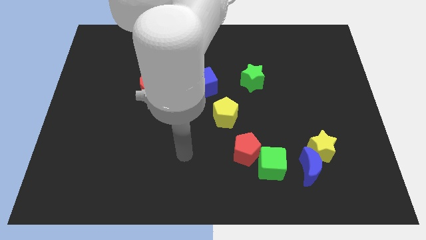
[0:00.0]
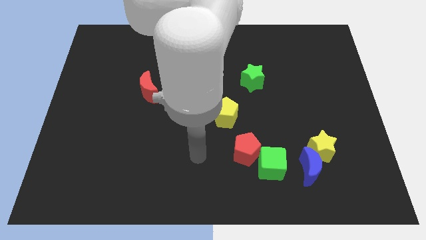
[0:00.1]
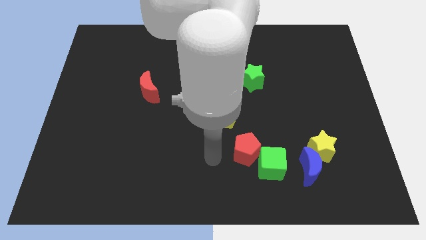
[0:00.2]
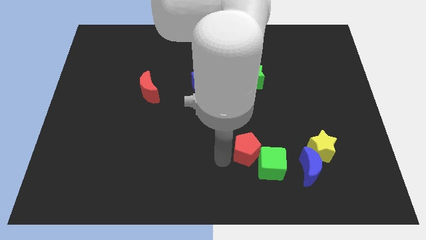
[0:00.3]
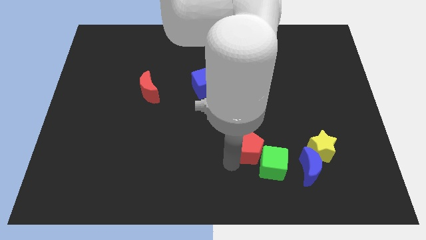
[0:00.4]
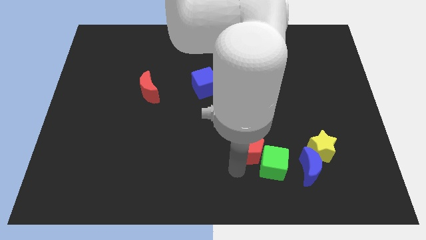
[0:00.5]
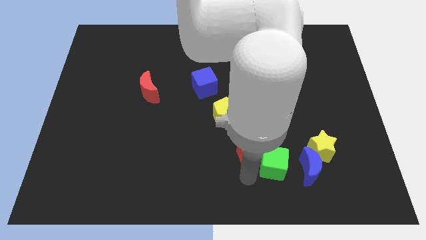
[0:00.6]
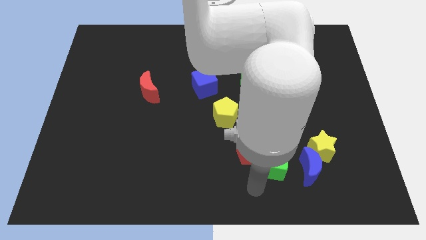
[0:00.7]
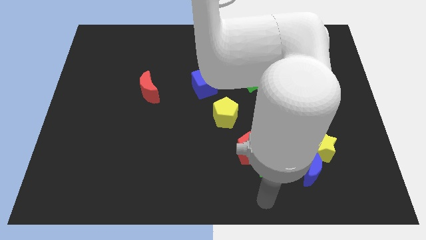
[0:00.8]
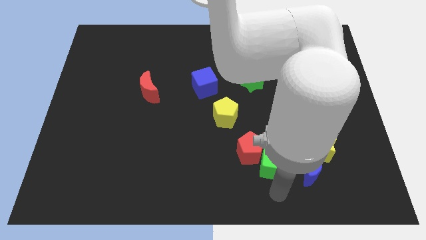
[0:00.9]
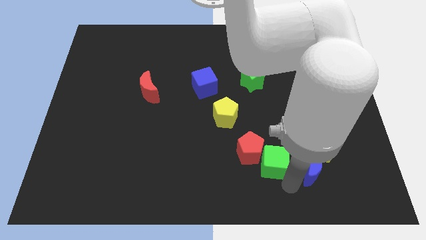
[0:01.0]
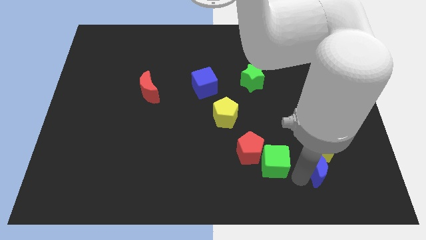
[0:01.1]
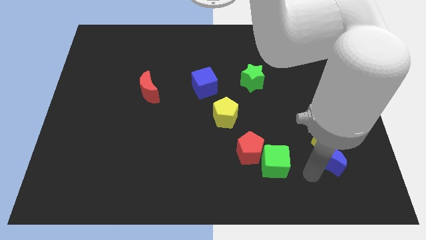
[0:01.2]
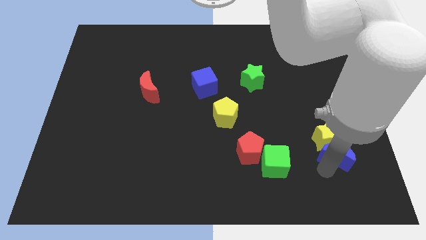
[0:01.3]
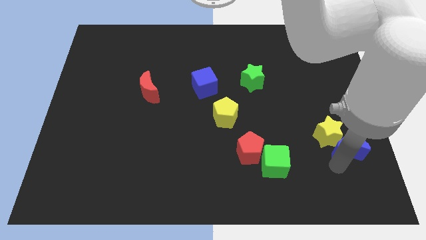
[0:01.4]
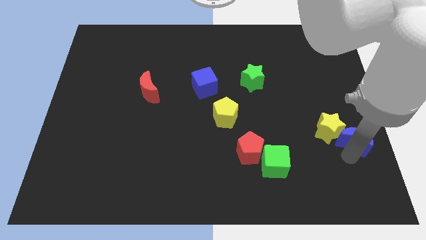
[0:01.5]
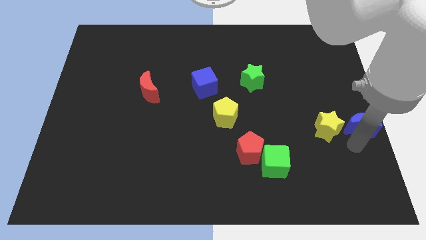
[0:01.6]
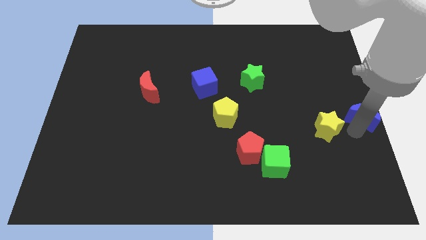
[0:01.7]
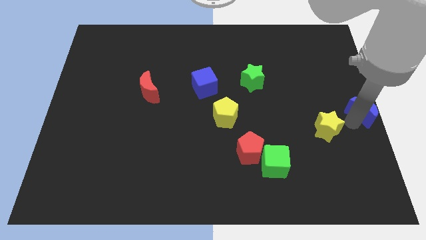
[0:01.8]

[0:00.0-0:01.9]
move the yellow star away from the blue moon

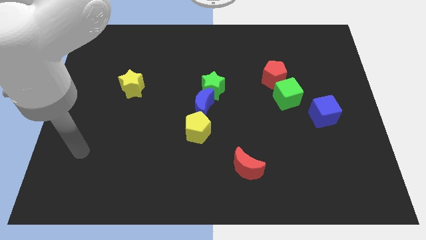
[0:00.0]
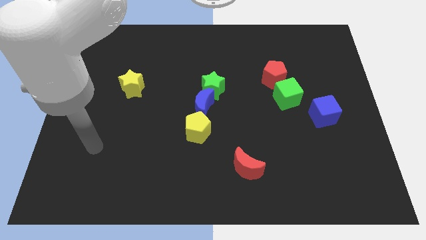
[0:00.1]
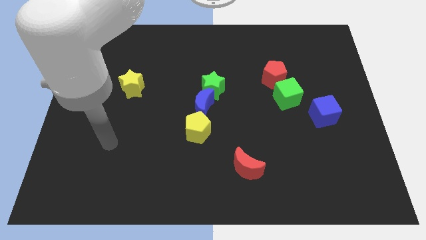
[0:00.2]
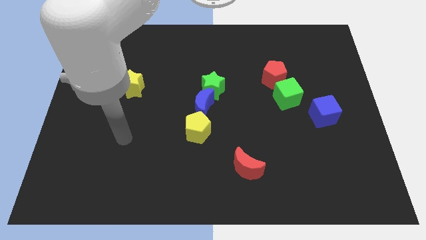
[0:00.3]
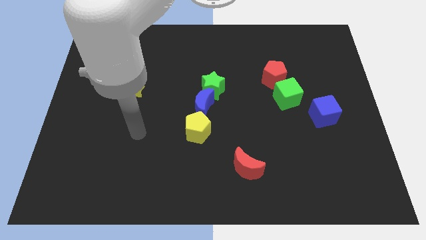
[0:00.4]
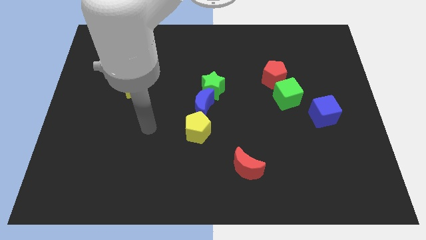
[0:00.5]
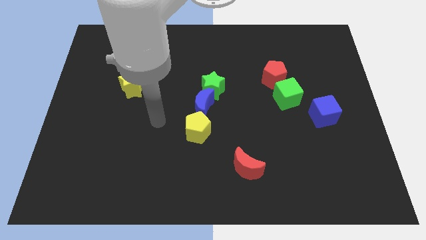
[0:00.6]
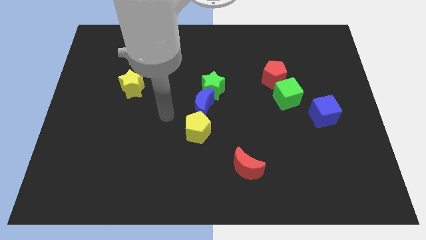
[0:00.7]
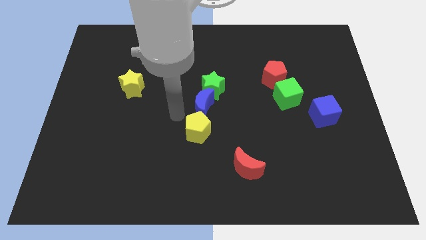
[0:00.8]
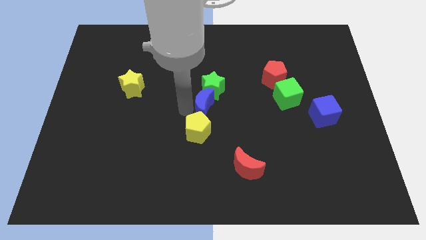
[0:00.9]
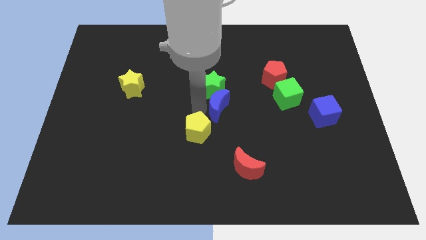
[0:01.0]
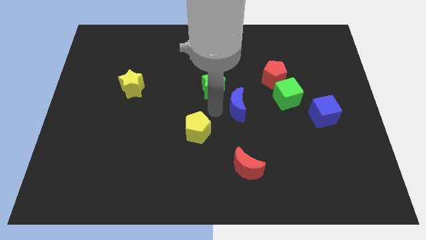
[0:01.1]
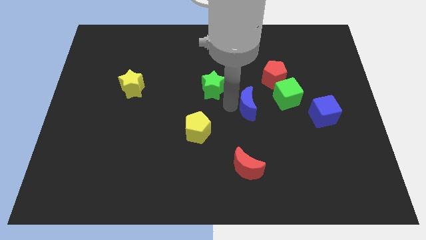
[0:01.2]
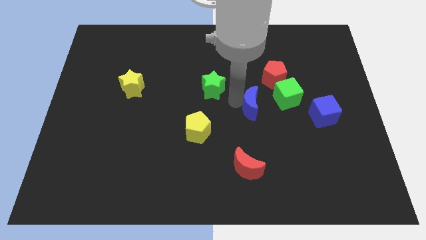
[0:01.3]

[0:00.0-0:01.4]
move the green star away from the blue moon

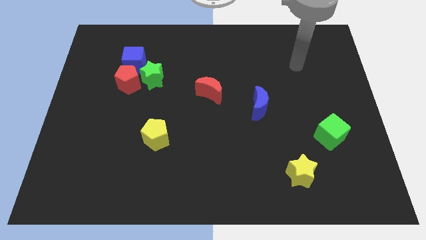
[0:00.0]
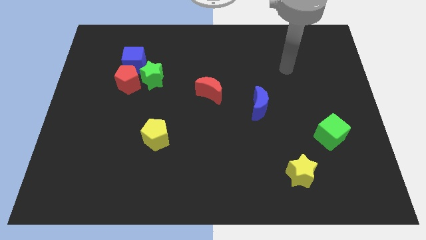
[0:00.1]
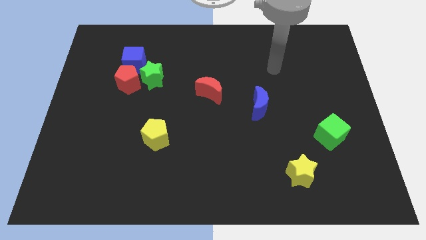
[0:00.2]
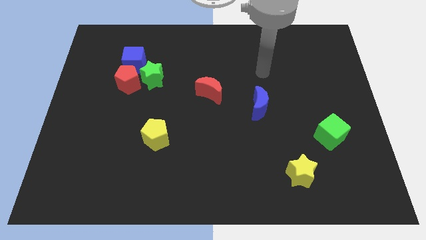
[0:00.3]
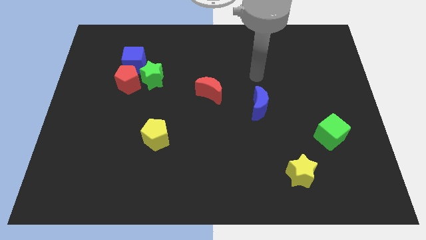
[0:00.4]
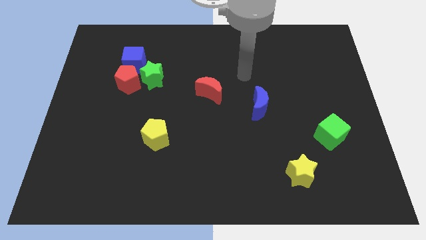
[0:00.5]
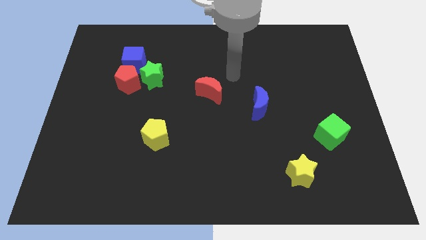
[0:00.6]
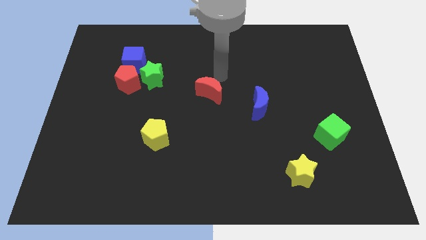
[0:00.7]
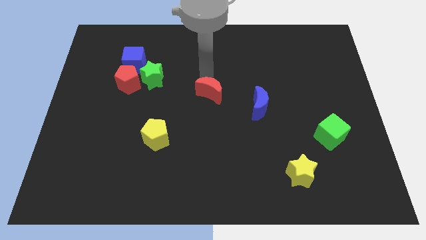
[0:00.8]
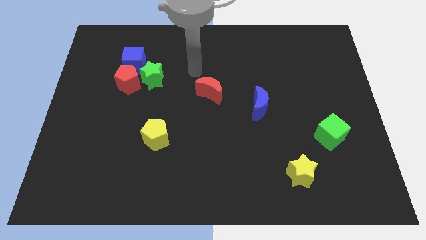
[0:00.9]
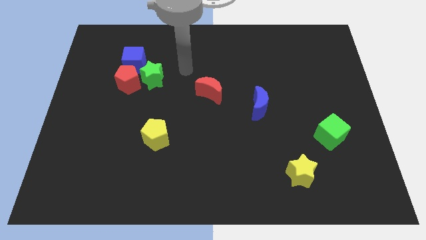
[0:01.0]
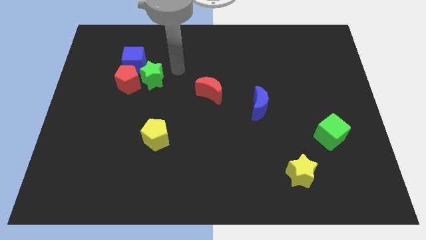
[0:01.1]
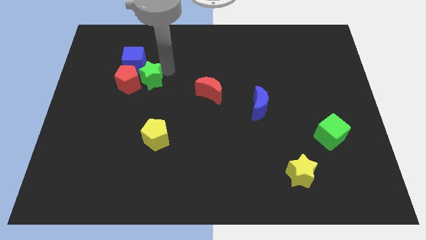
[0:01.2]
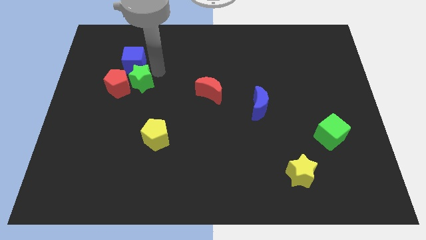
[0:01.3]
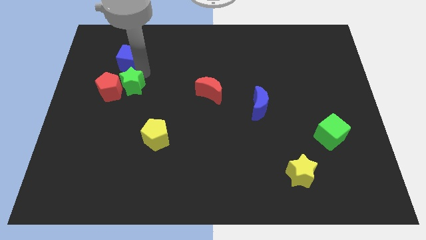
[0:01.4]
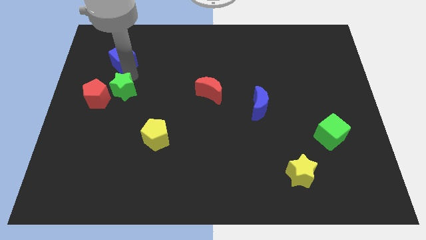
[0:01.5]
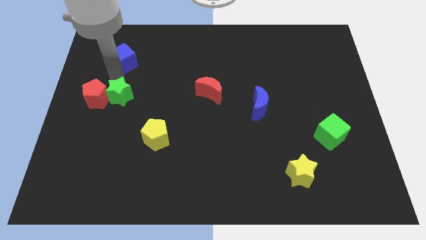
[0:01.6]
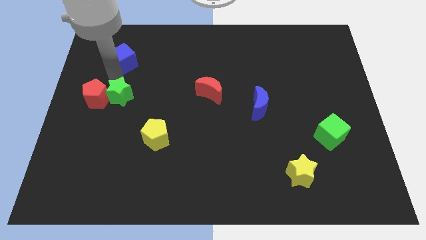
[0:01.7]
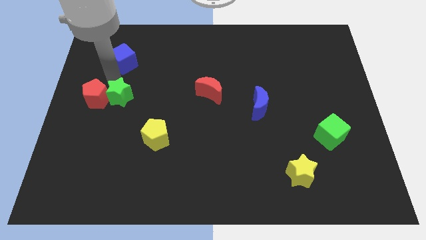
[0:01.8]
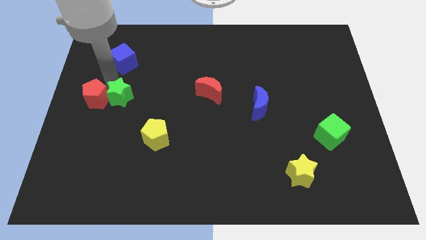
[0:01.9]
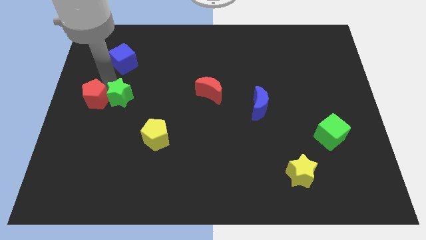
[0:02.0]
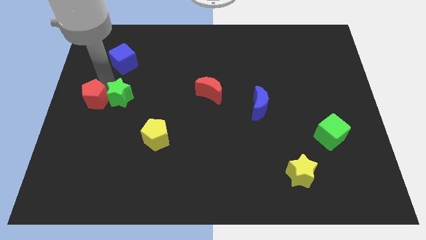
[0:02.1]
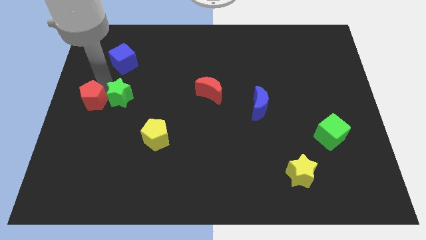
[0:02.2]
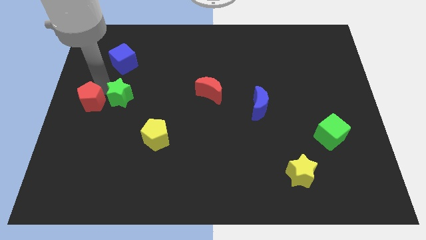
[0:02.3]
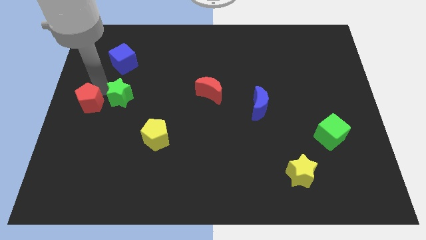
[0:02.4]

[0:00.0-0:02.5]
pull the red pentagon apart from the green star and blue cube

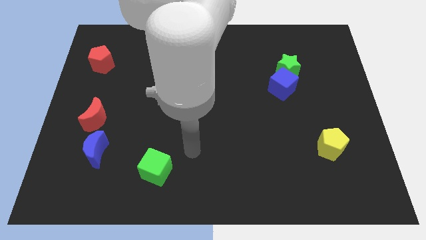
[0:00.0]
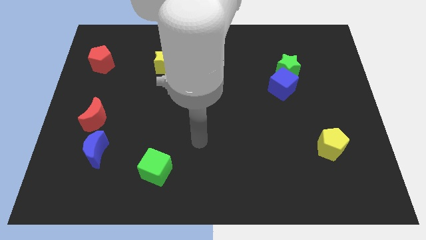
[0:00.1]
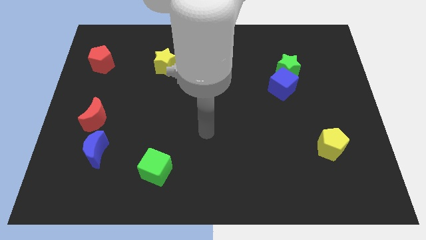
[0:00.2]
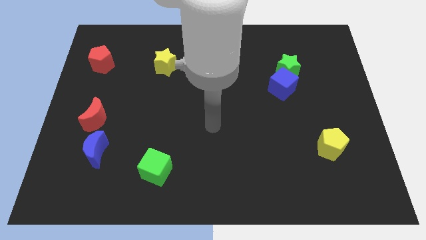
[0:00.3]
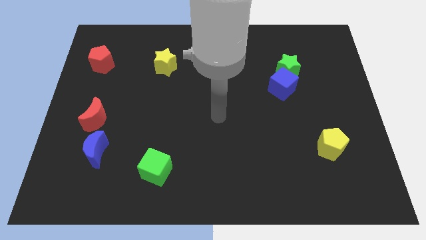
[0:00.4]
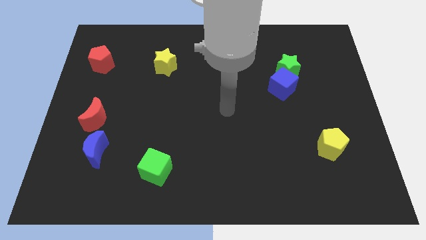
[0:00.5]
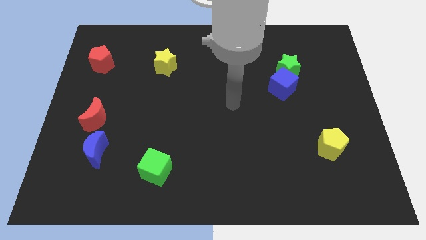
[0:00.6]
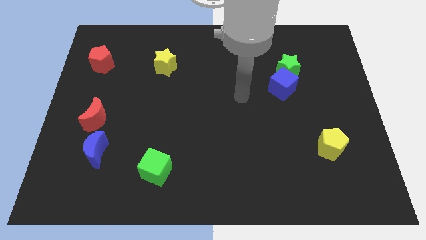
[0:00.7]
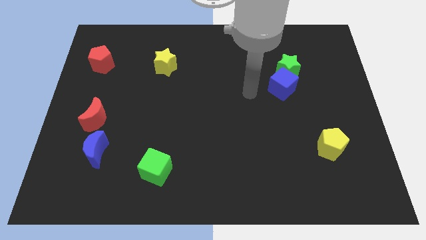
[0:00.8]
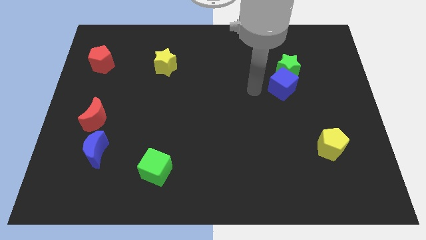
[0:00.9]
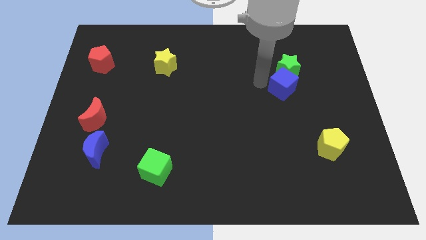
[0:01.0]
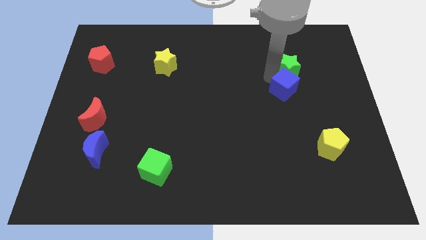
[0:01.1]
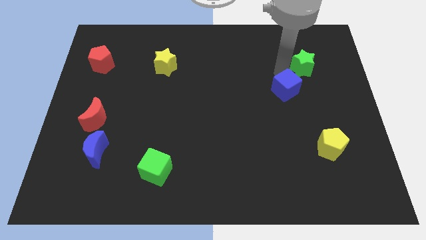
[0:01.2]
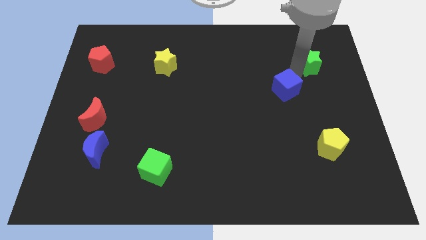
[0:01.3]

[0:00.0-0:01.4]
move the blue cube away from the green star

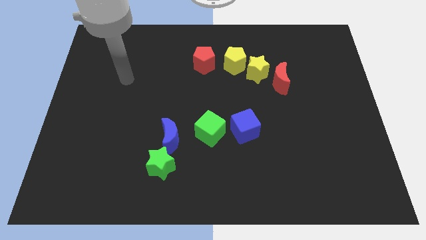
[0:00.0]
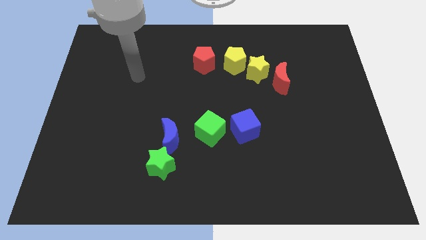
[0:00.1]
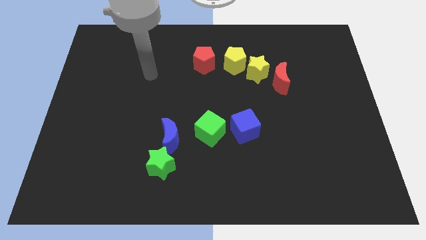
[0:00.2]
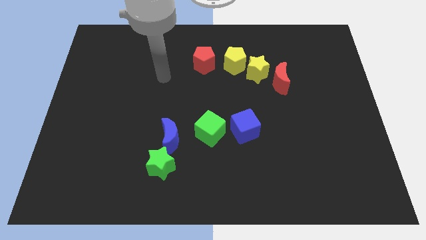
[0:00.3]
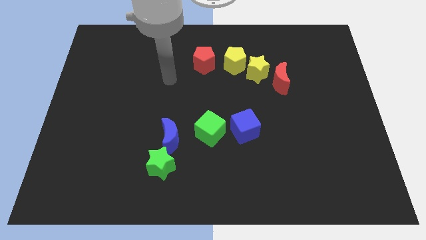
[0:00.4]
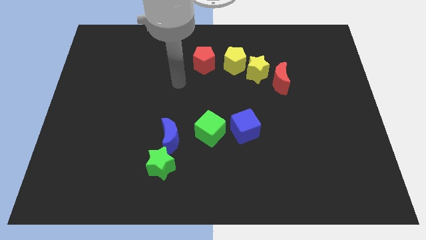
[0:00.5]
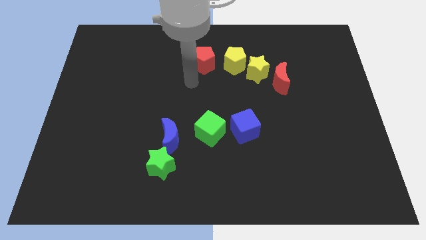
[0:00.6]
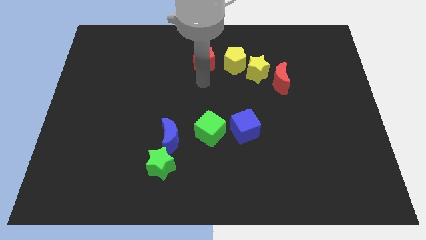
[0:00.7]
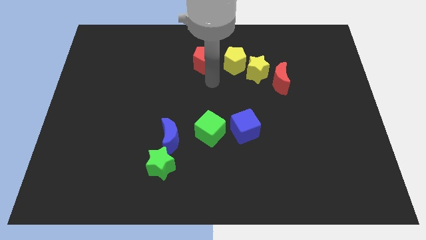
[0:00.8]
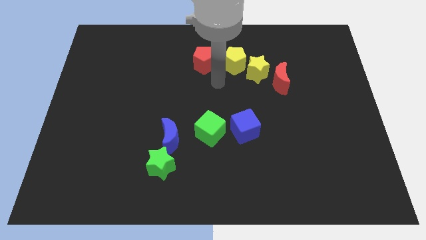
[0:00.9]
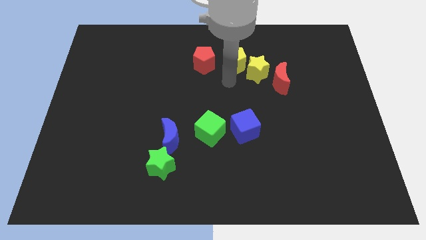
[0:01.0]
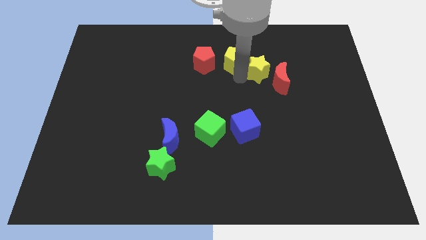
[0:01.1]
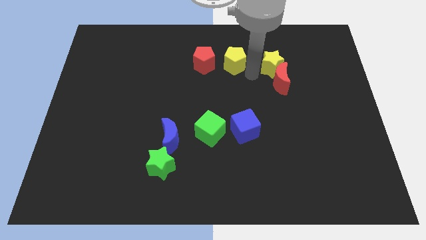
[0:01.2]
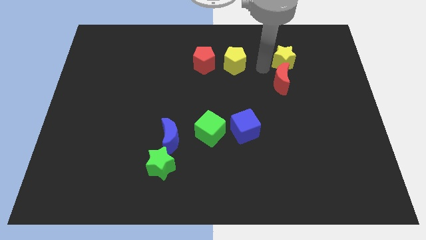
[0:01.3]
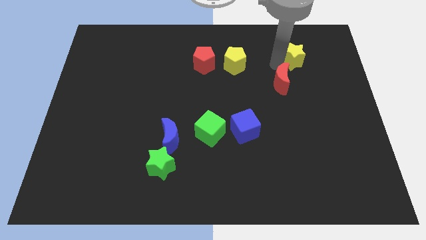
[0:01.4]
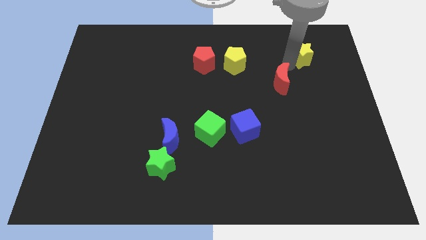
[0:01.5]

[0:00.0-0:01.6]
move the red moon away from the yellow star

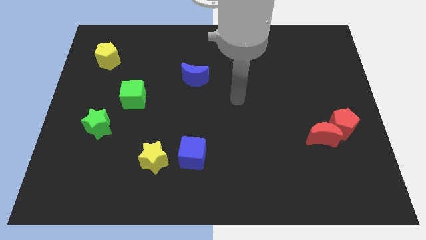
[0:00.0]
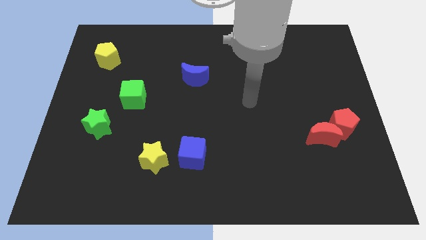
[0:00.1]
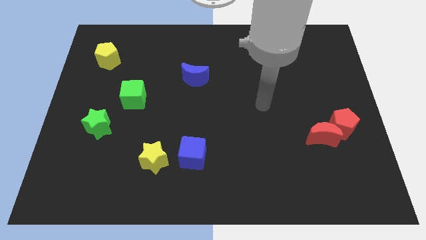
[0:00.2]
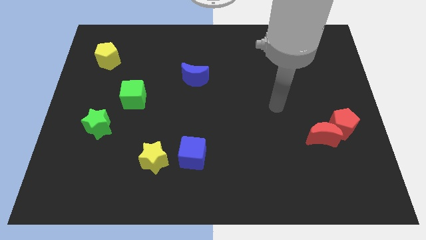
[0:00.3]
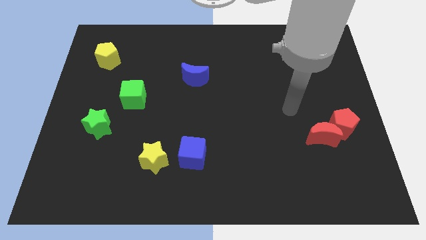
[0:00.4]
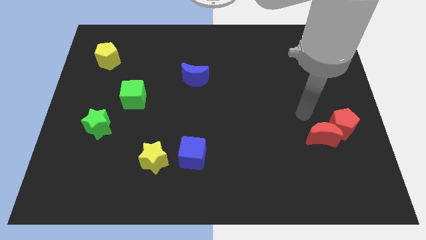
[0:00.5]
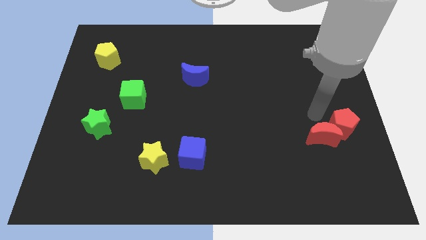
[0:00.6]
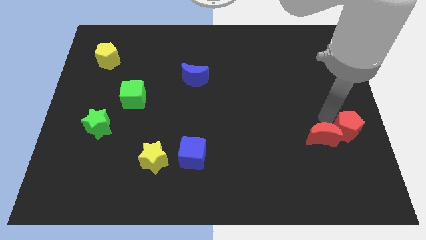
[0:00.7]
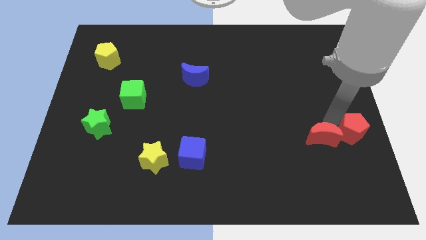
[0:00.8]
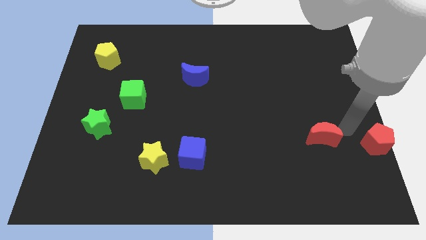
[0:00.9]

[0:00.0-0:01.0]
separate the red moon from the red pentagon